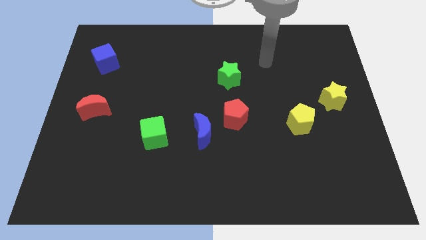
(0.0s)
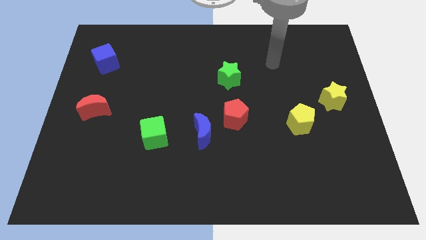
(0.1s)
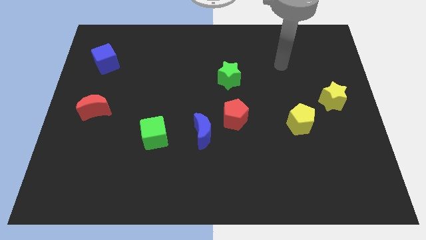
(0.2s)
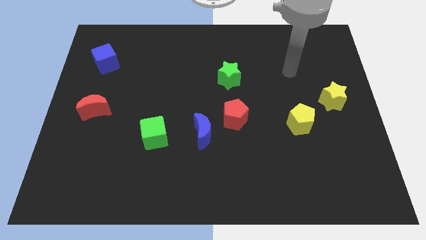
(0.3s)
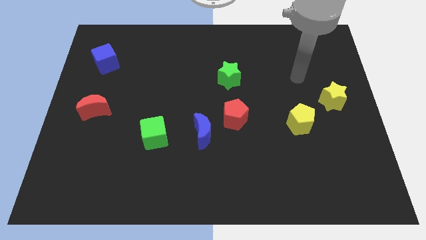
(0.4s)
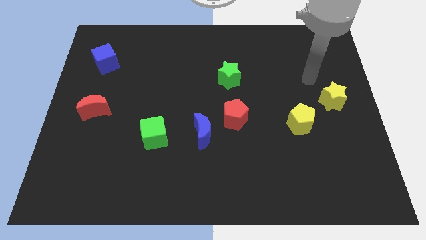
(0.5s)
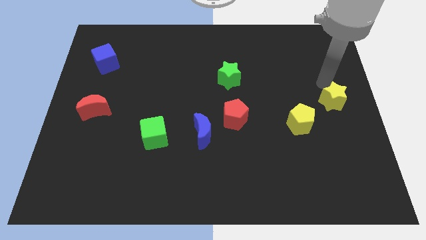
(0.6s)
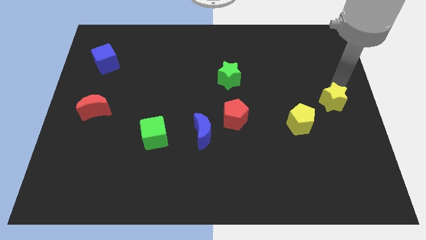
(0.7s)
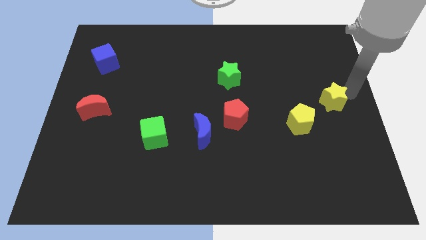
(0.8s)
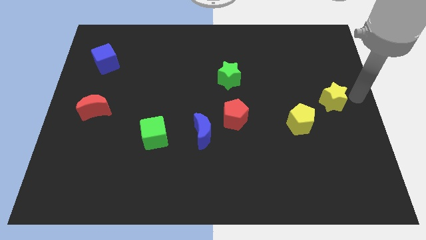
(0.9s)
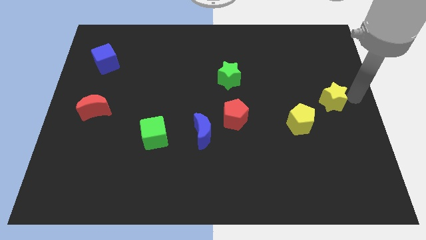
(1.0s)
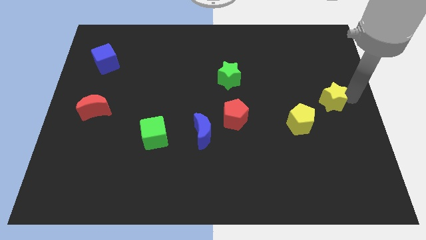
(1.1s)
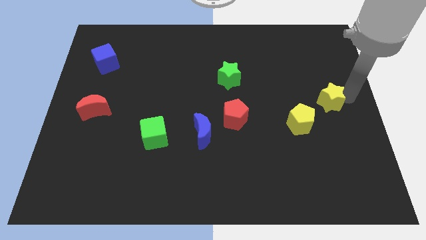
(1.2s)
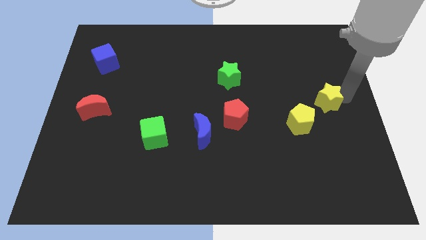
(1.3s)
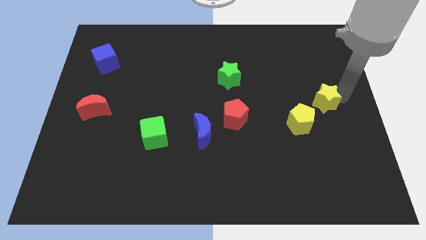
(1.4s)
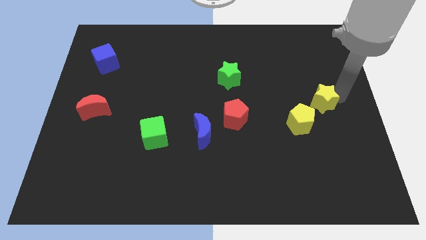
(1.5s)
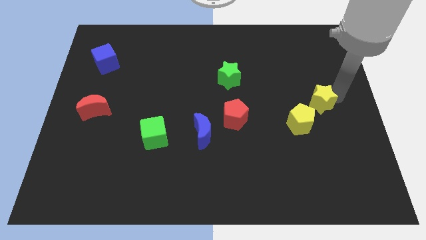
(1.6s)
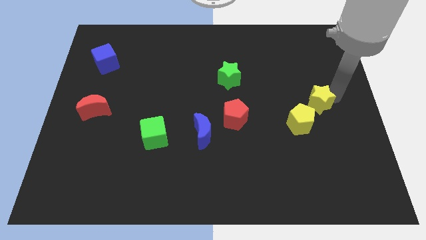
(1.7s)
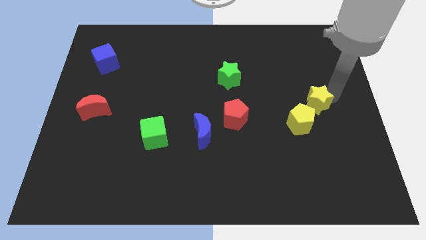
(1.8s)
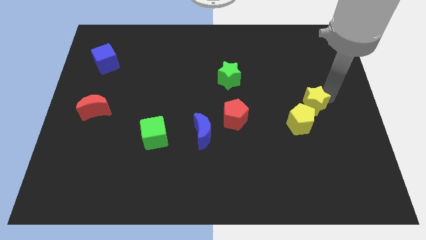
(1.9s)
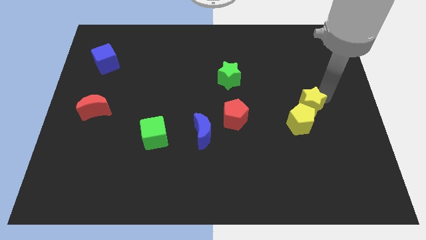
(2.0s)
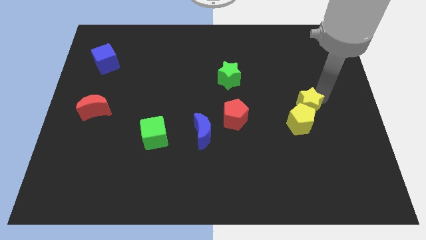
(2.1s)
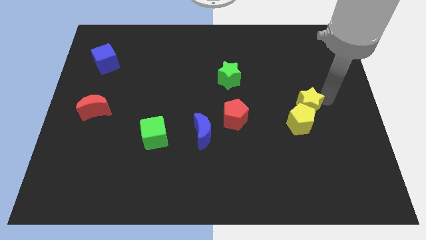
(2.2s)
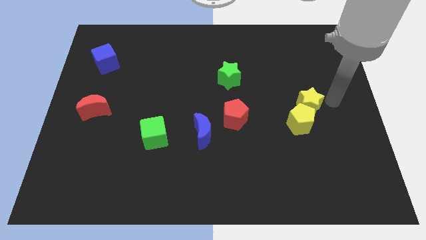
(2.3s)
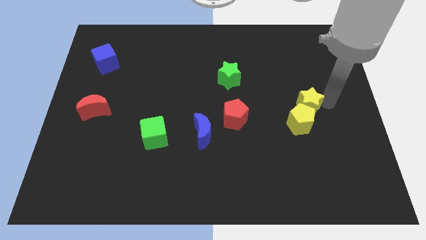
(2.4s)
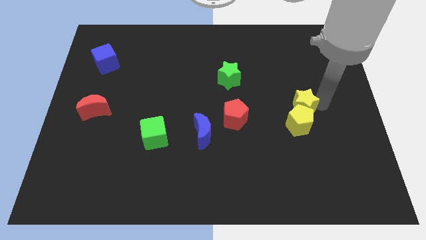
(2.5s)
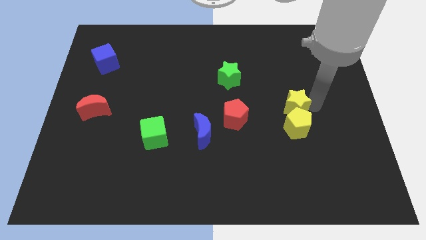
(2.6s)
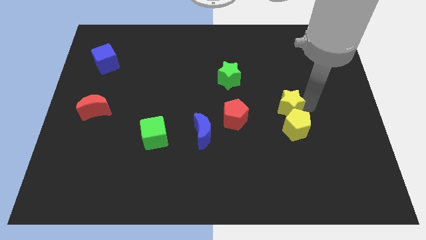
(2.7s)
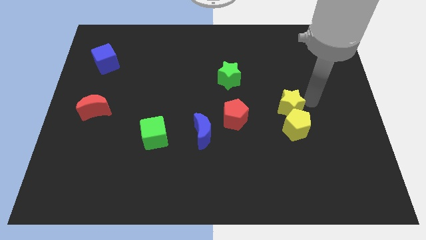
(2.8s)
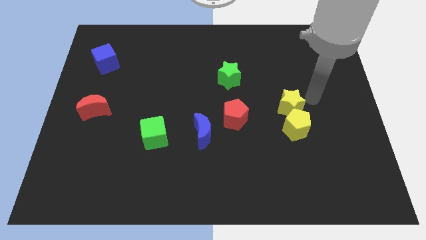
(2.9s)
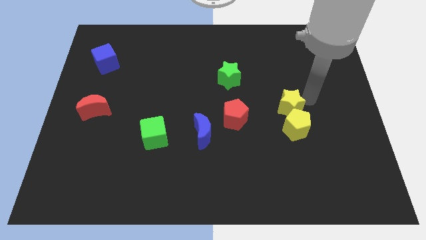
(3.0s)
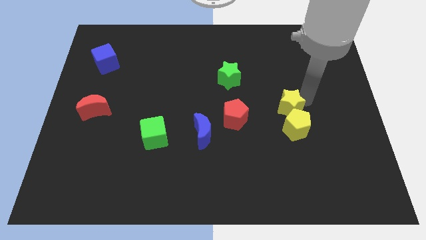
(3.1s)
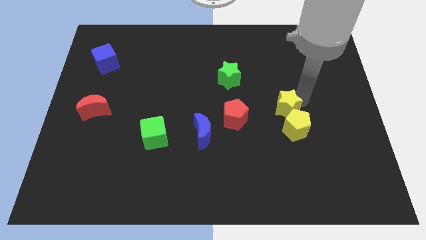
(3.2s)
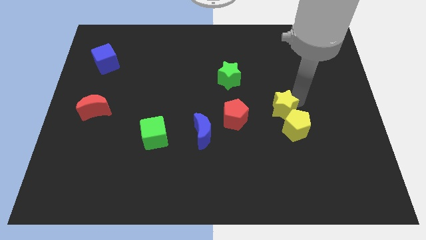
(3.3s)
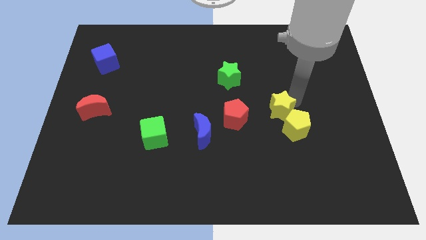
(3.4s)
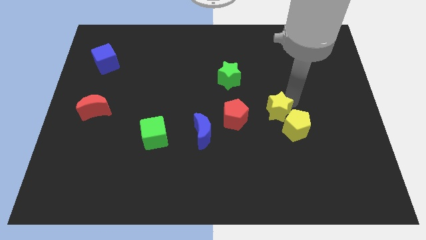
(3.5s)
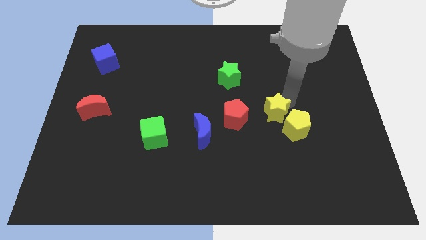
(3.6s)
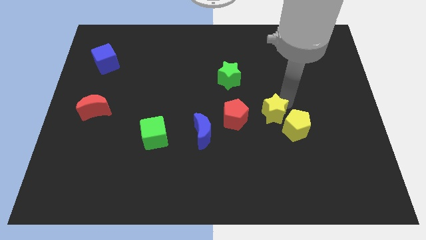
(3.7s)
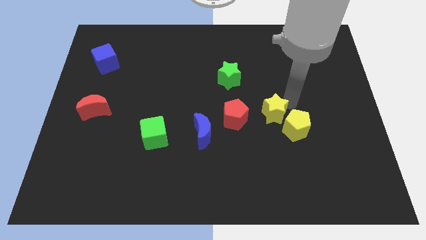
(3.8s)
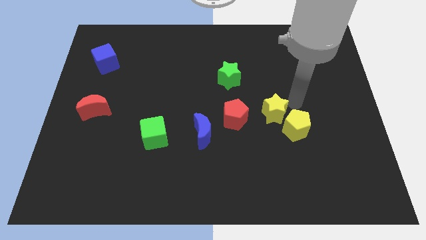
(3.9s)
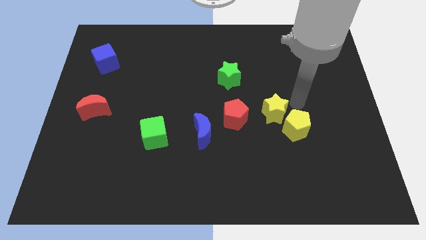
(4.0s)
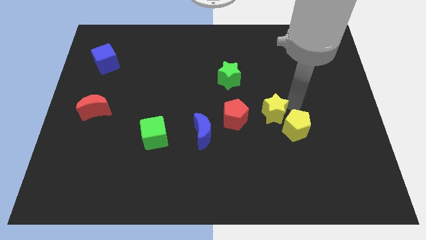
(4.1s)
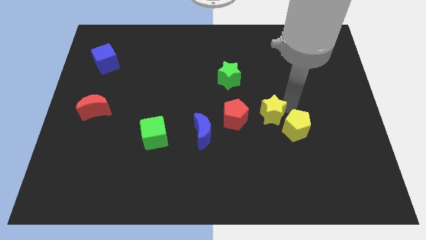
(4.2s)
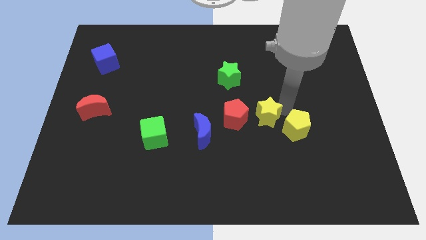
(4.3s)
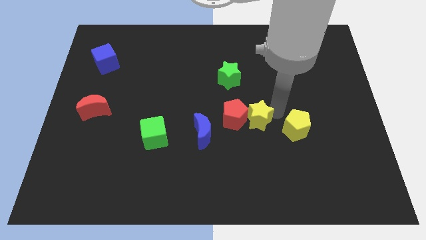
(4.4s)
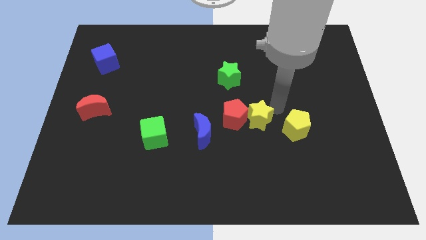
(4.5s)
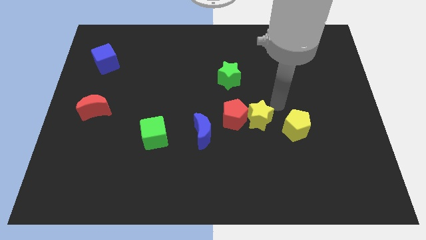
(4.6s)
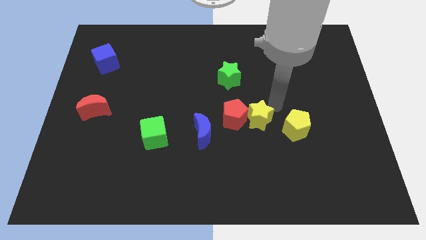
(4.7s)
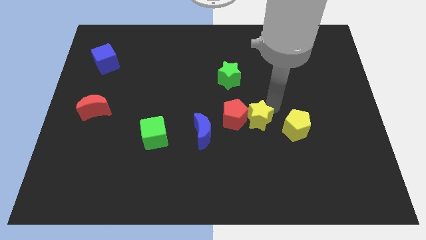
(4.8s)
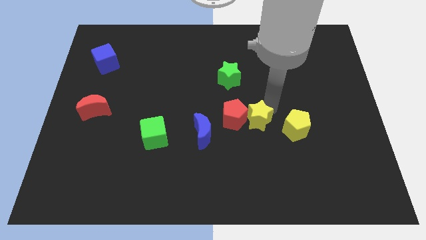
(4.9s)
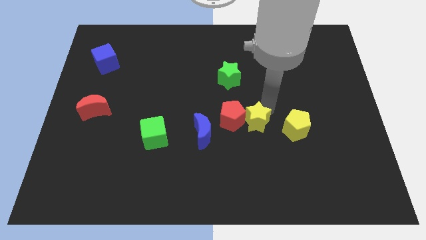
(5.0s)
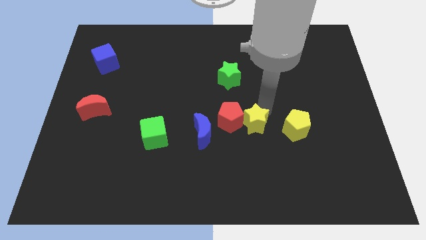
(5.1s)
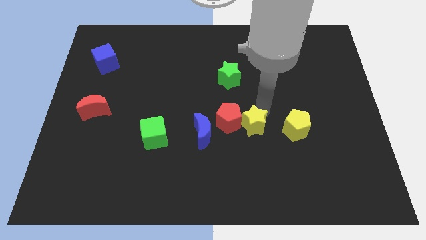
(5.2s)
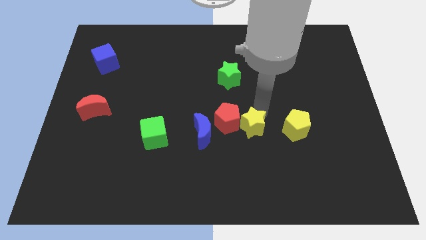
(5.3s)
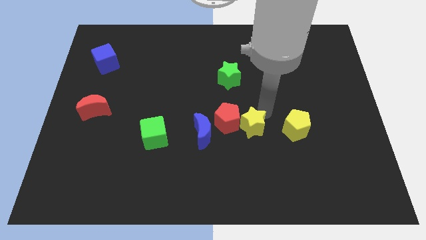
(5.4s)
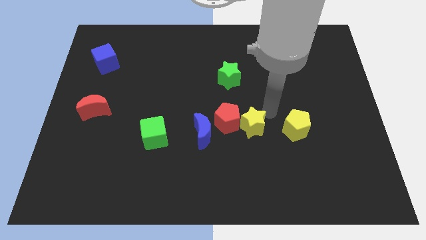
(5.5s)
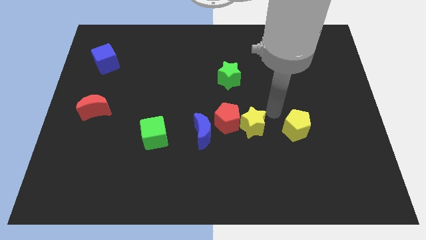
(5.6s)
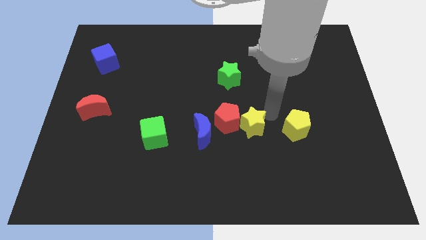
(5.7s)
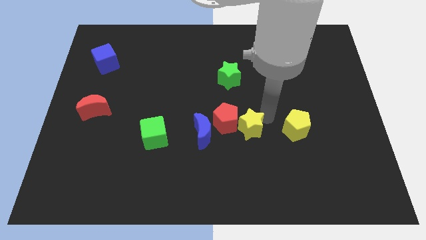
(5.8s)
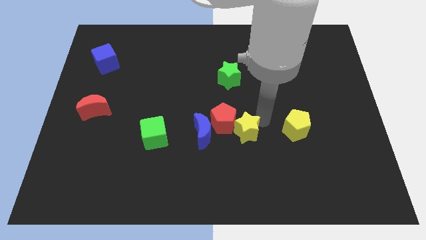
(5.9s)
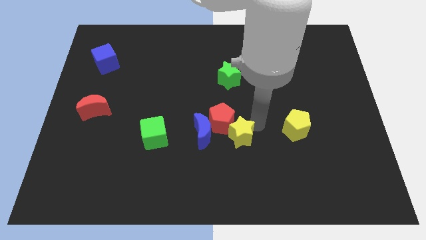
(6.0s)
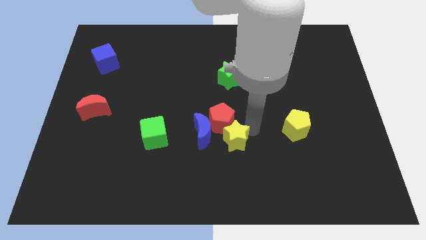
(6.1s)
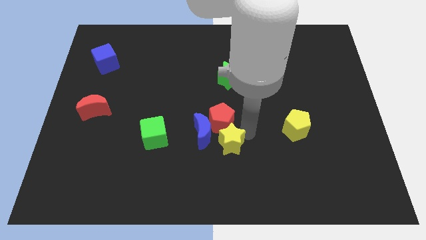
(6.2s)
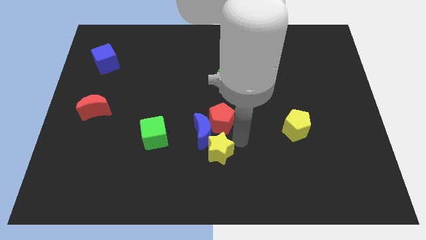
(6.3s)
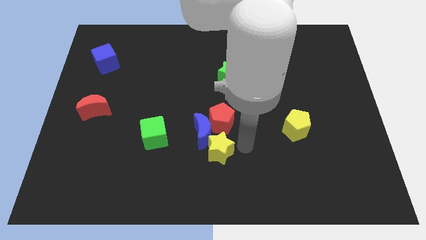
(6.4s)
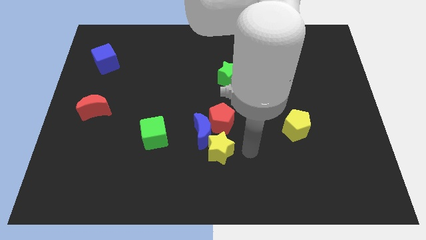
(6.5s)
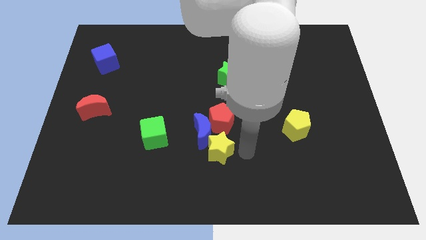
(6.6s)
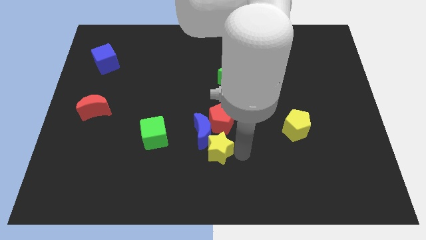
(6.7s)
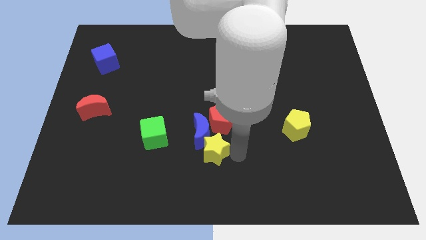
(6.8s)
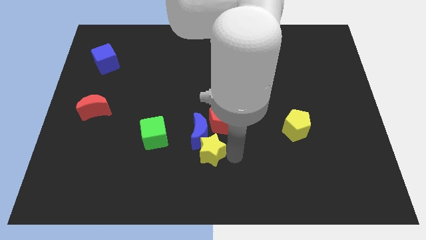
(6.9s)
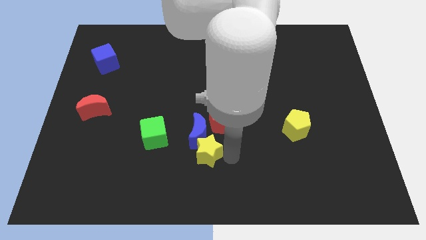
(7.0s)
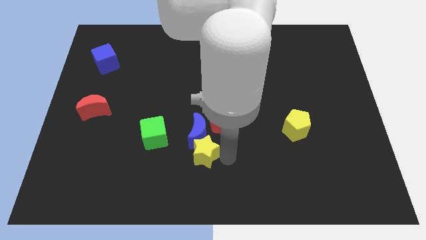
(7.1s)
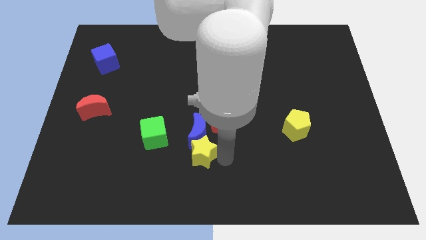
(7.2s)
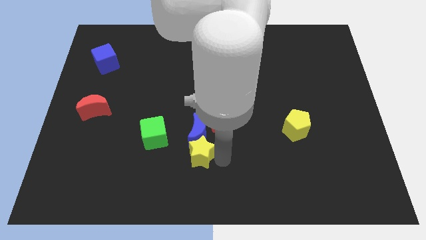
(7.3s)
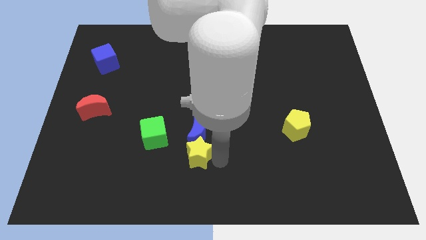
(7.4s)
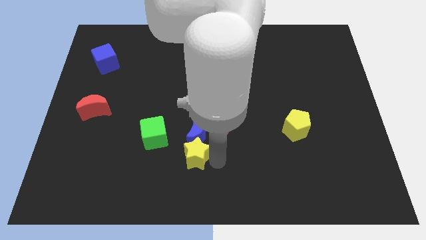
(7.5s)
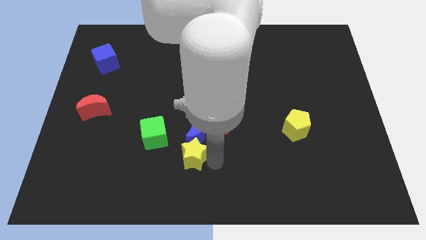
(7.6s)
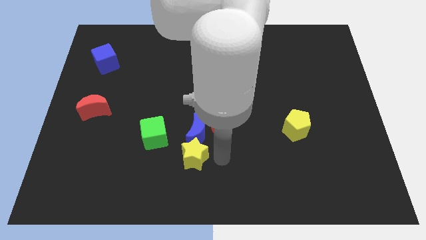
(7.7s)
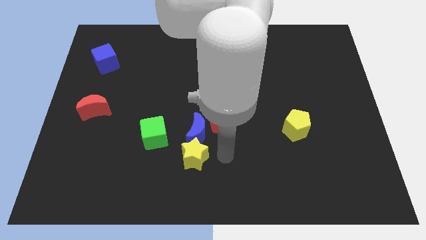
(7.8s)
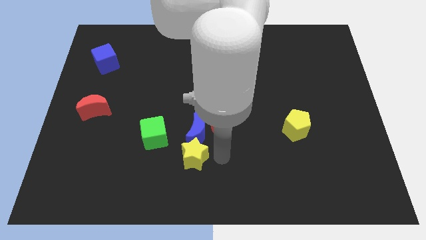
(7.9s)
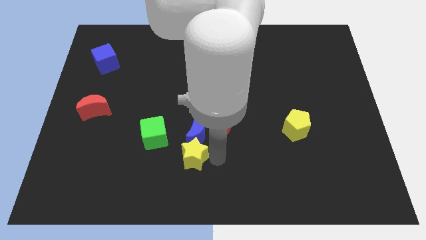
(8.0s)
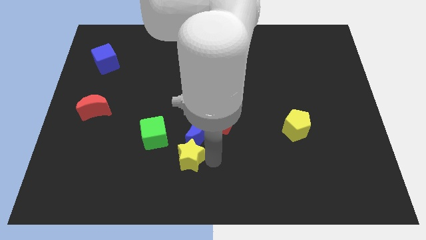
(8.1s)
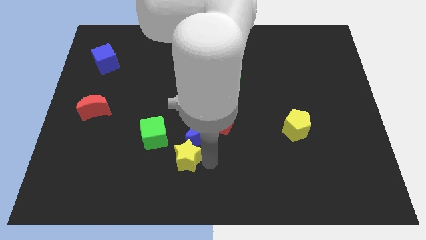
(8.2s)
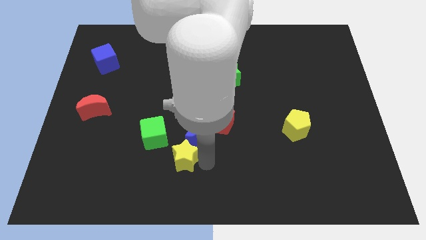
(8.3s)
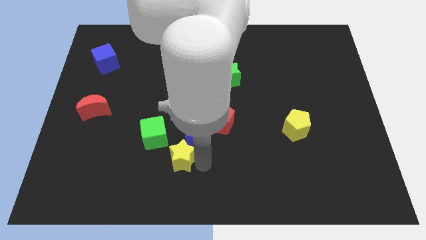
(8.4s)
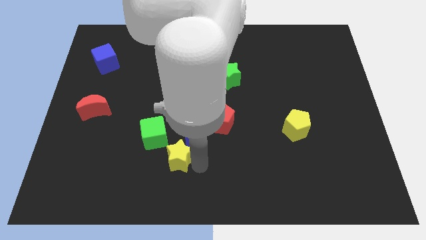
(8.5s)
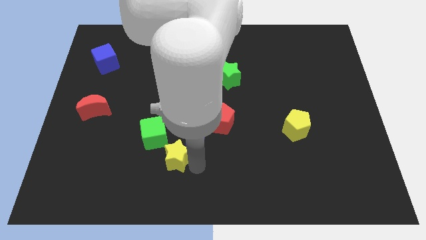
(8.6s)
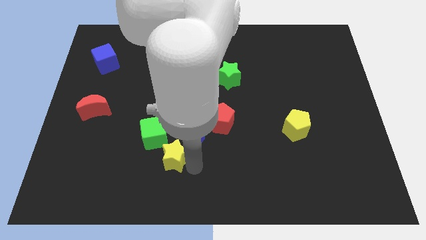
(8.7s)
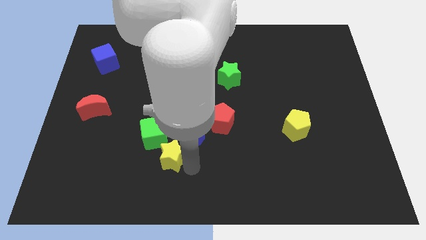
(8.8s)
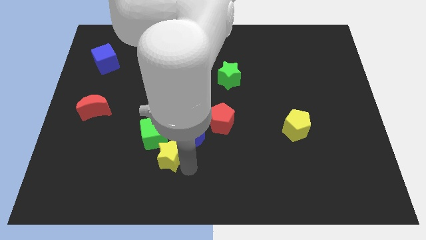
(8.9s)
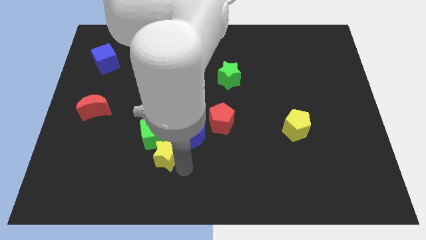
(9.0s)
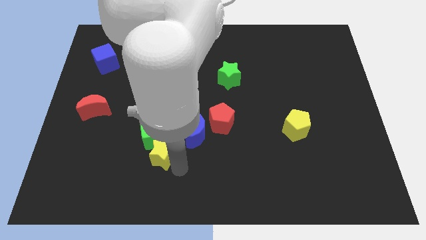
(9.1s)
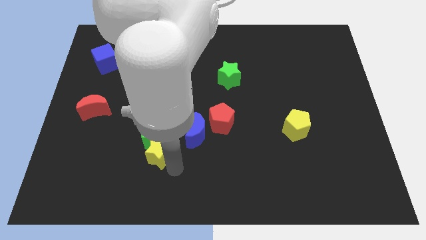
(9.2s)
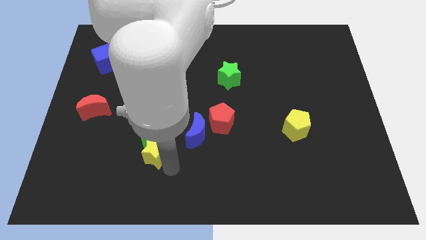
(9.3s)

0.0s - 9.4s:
slide the yellow star diagonally down and to the left of the green cube
